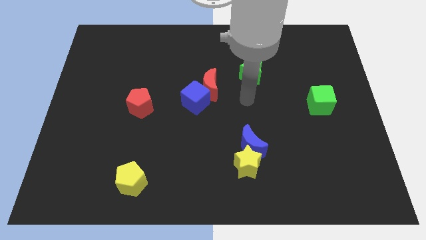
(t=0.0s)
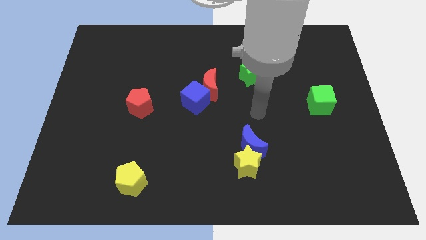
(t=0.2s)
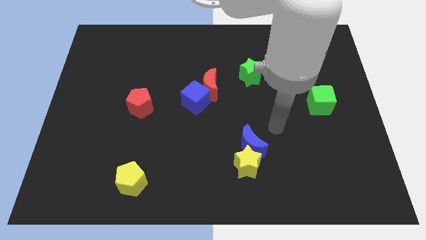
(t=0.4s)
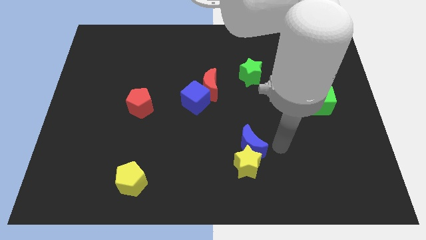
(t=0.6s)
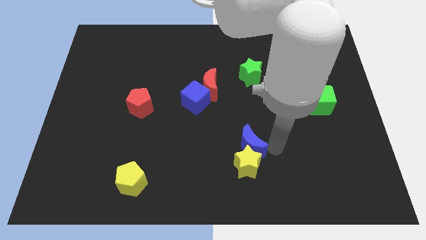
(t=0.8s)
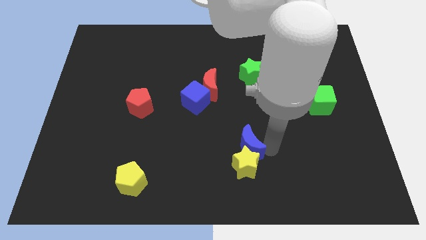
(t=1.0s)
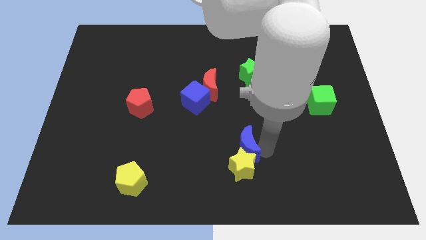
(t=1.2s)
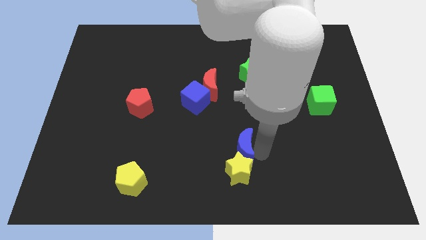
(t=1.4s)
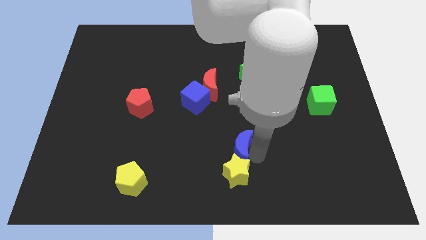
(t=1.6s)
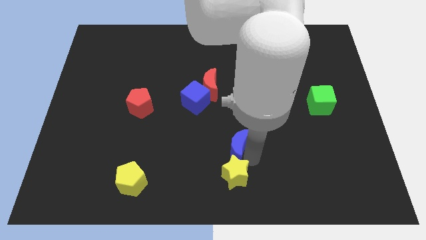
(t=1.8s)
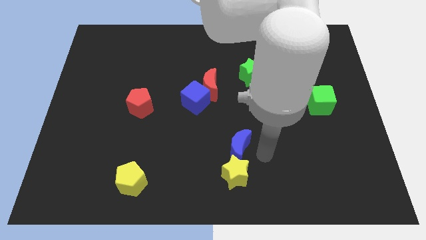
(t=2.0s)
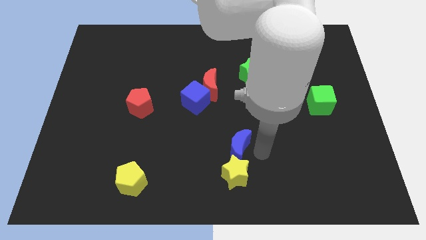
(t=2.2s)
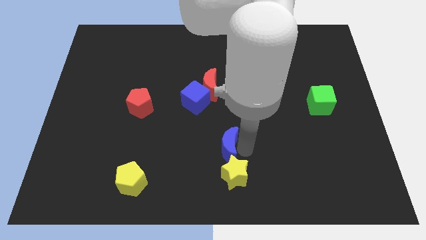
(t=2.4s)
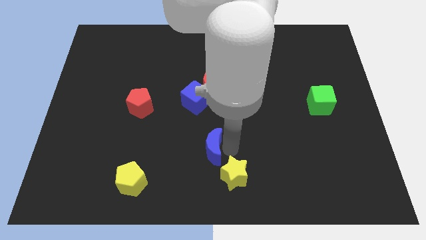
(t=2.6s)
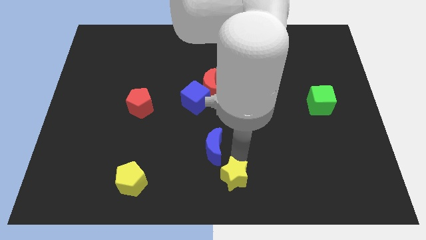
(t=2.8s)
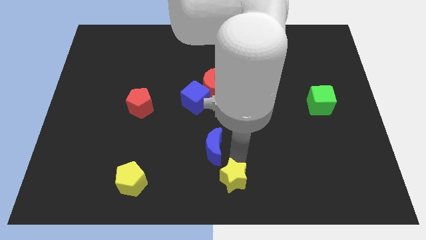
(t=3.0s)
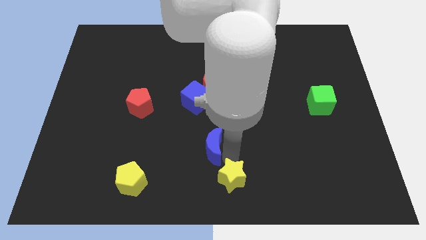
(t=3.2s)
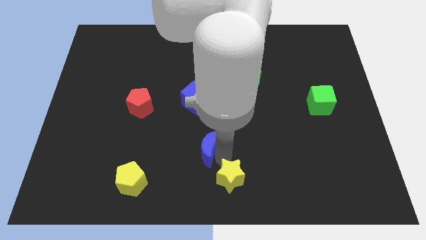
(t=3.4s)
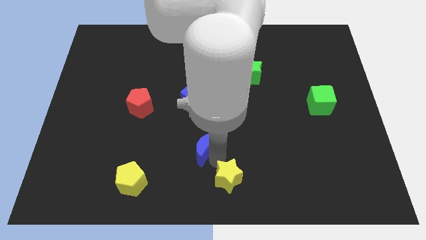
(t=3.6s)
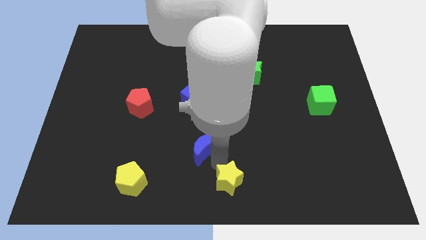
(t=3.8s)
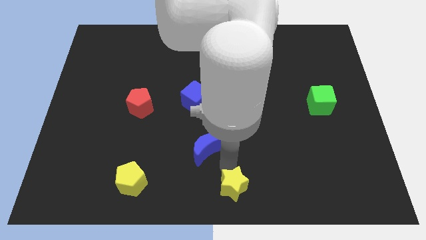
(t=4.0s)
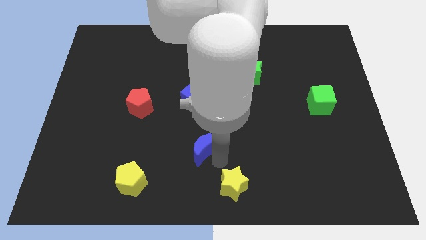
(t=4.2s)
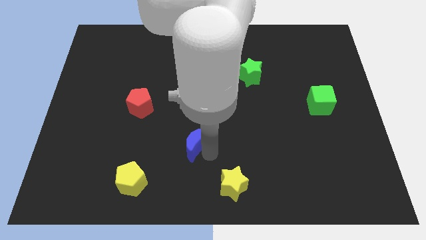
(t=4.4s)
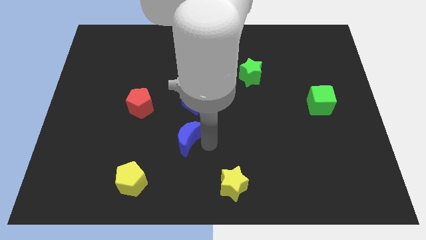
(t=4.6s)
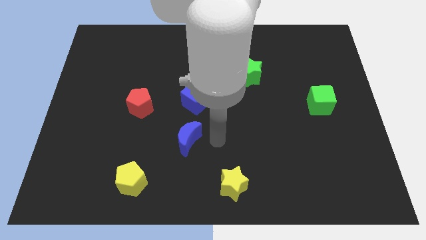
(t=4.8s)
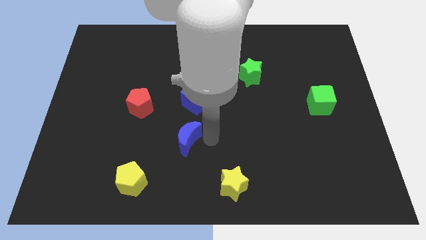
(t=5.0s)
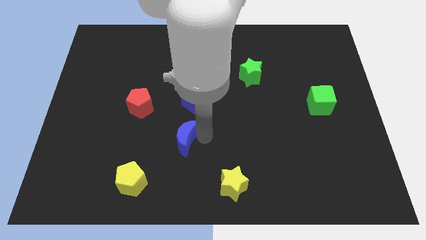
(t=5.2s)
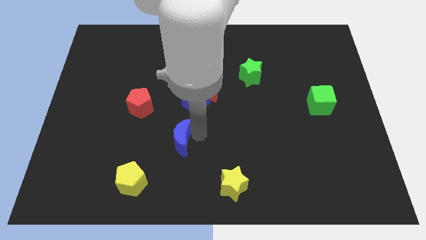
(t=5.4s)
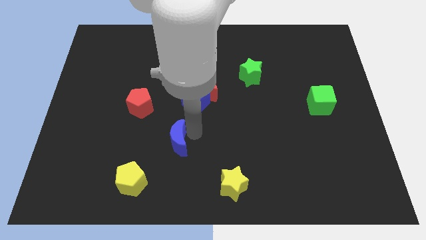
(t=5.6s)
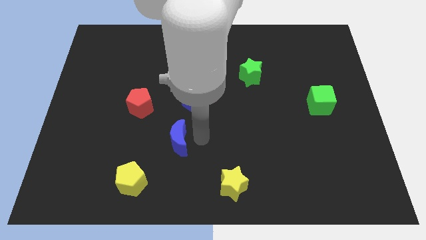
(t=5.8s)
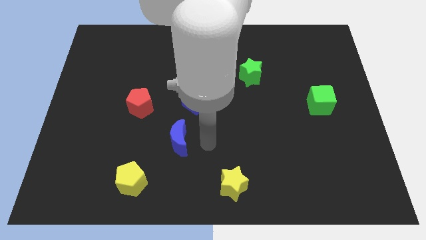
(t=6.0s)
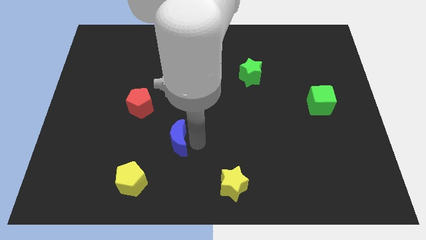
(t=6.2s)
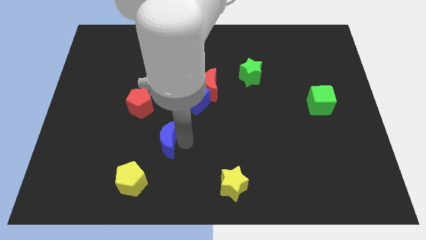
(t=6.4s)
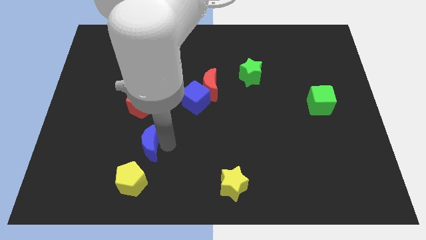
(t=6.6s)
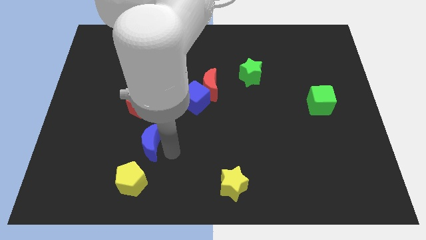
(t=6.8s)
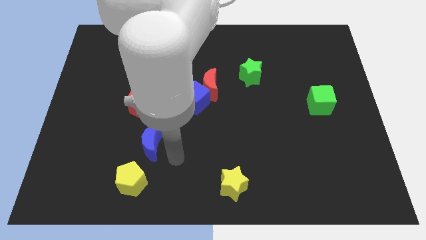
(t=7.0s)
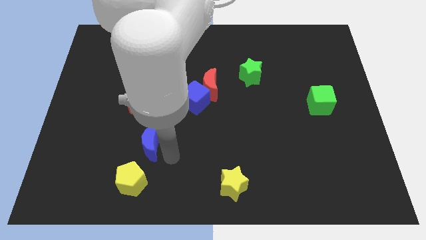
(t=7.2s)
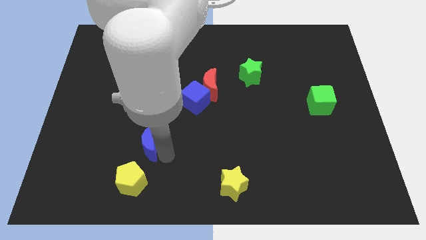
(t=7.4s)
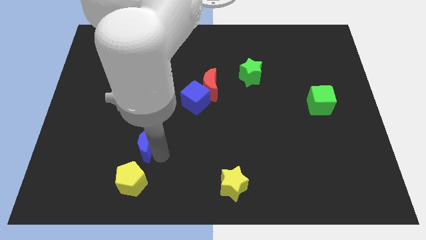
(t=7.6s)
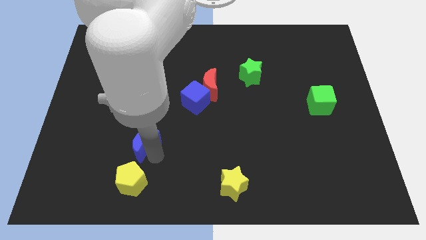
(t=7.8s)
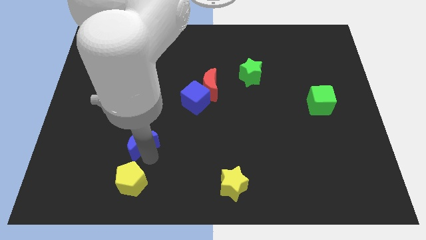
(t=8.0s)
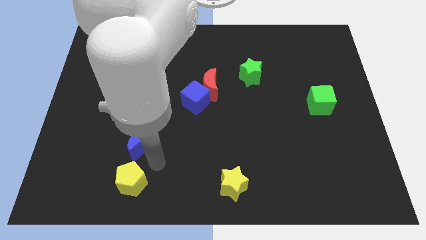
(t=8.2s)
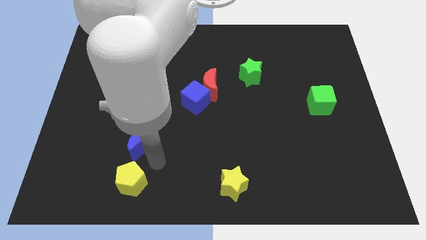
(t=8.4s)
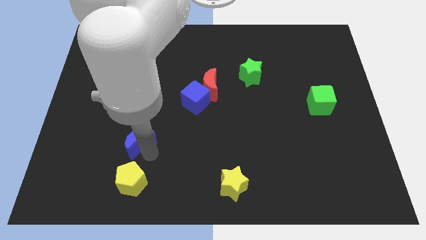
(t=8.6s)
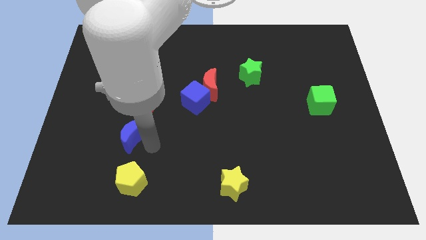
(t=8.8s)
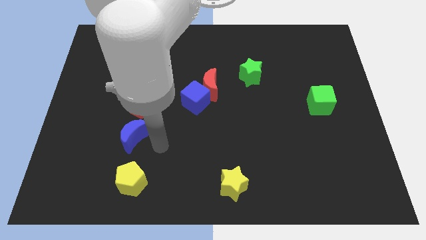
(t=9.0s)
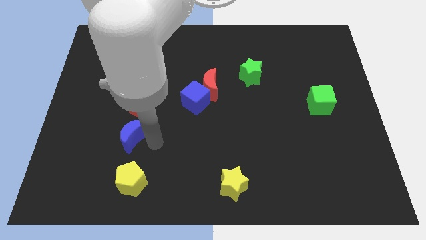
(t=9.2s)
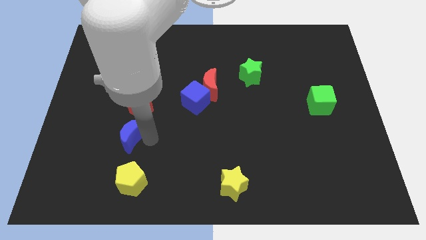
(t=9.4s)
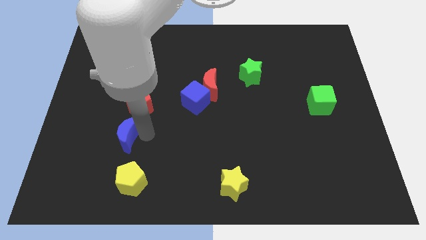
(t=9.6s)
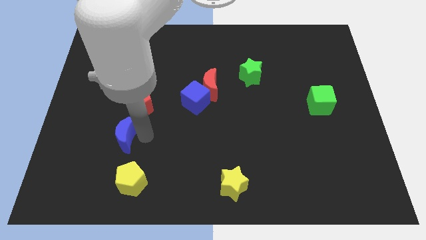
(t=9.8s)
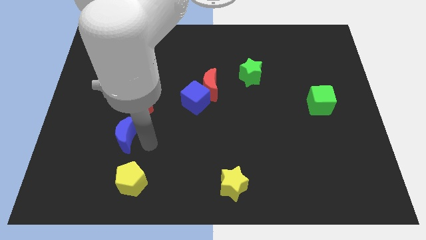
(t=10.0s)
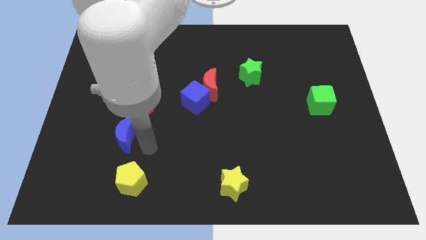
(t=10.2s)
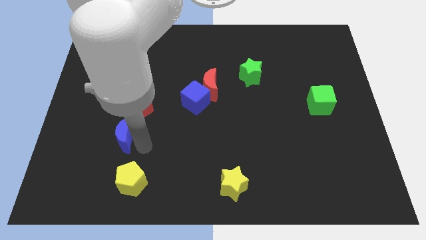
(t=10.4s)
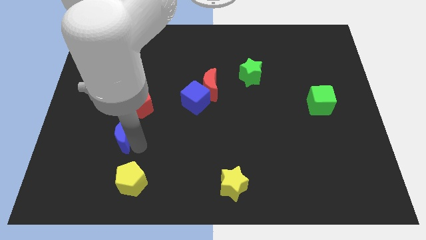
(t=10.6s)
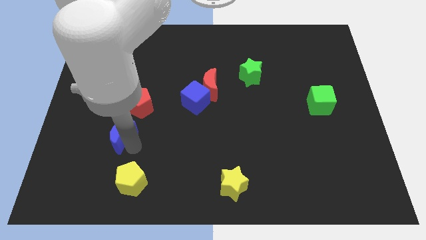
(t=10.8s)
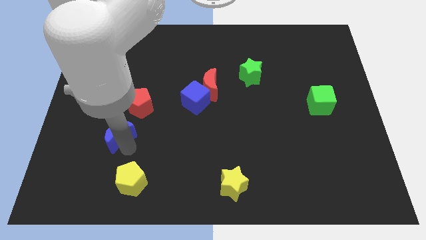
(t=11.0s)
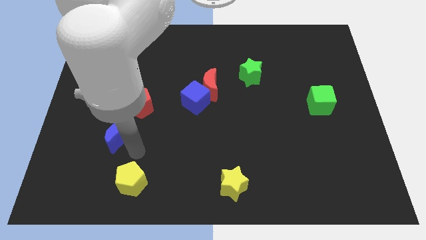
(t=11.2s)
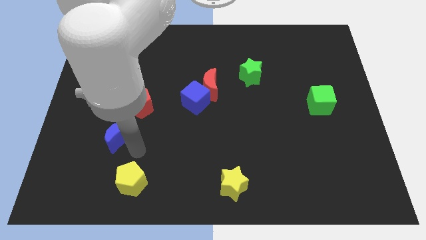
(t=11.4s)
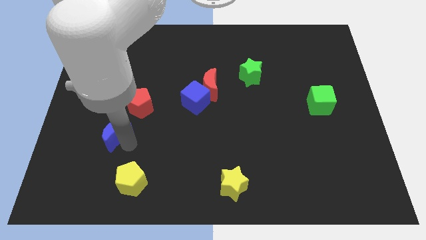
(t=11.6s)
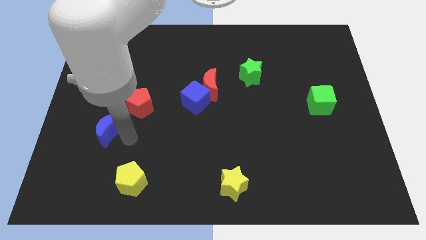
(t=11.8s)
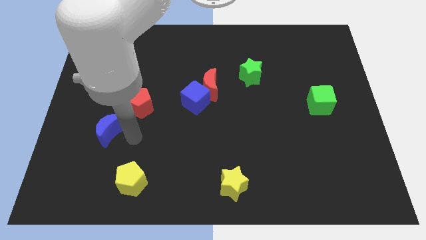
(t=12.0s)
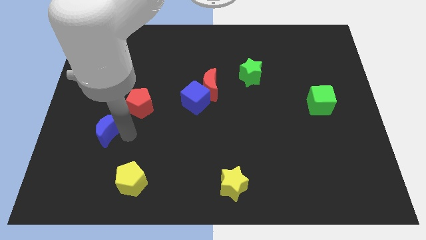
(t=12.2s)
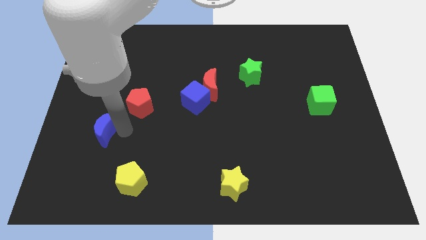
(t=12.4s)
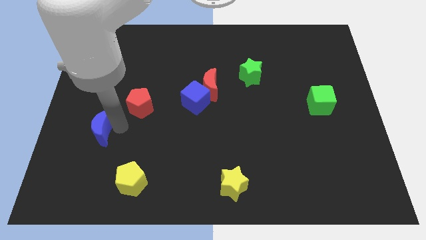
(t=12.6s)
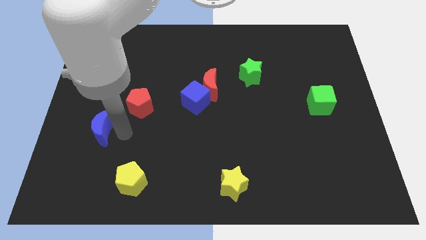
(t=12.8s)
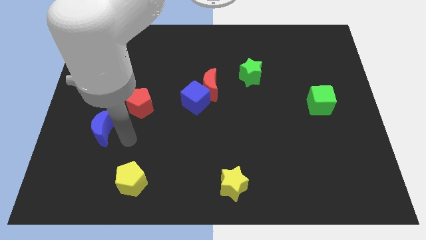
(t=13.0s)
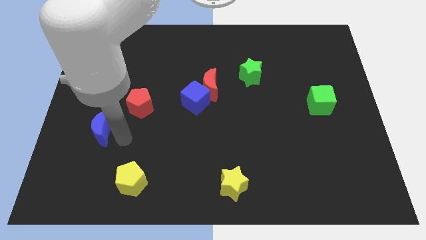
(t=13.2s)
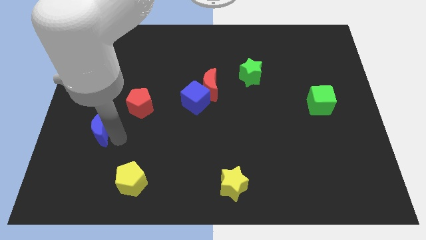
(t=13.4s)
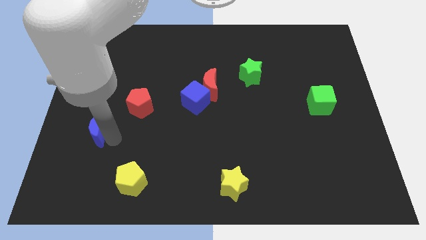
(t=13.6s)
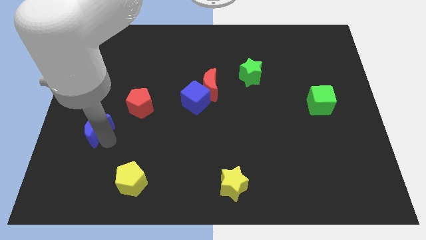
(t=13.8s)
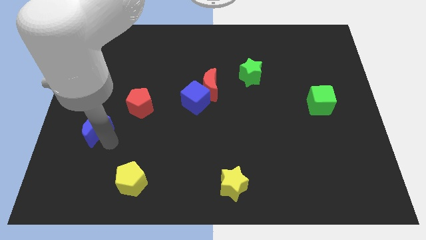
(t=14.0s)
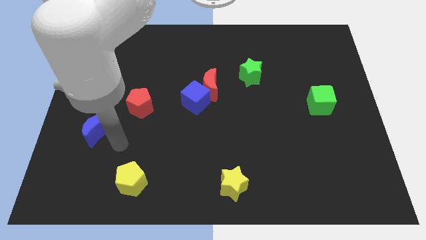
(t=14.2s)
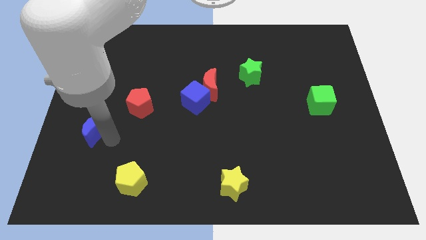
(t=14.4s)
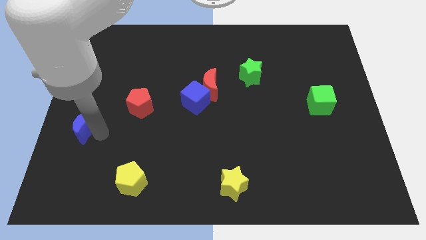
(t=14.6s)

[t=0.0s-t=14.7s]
push the blue moon to the left side of the board

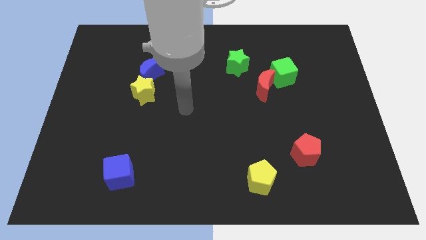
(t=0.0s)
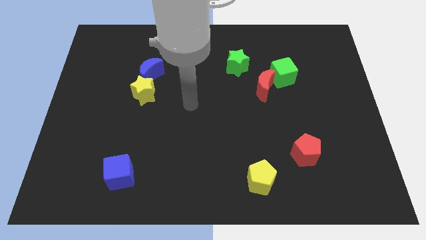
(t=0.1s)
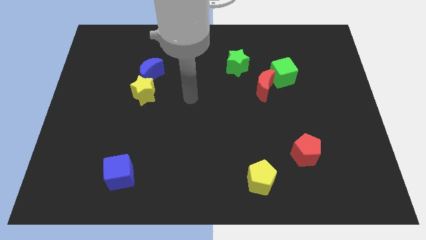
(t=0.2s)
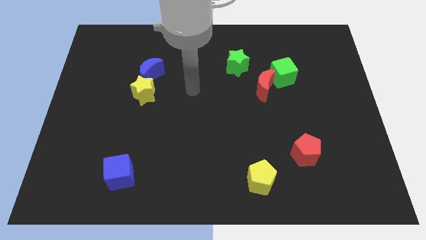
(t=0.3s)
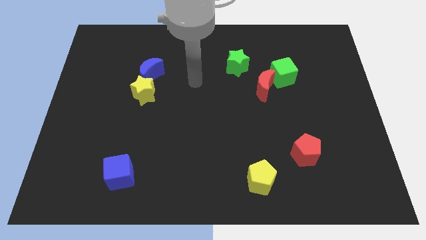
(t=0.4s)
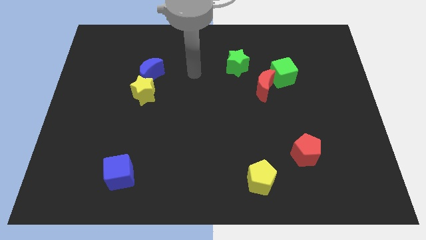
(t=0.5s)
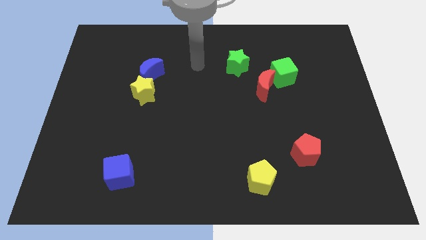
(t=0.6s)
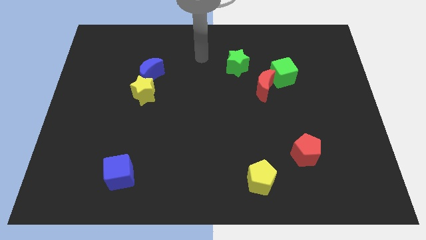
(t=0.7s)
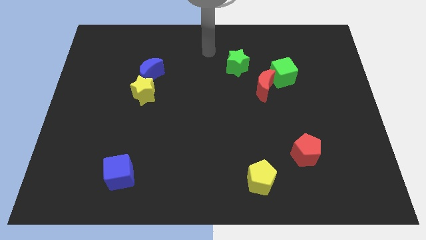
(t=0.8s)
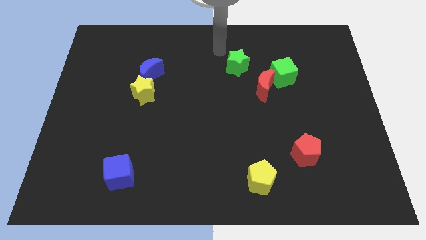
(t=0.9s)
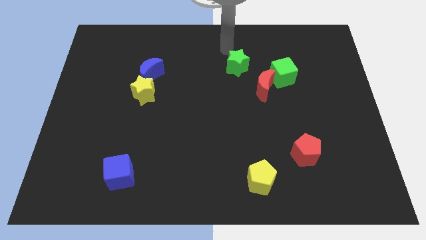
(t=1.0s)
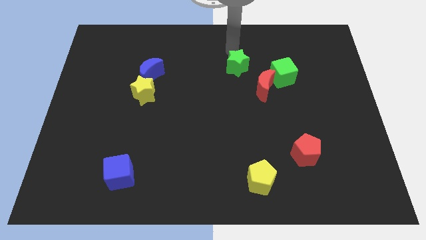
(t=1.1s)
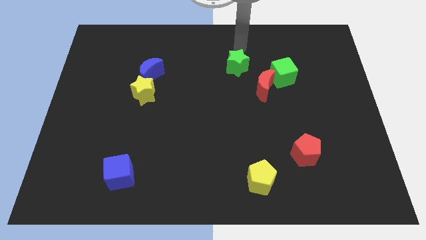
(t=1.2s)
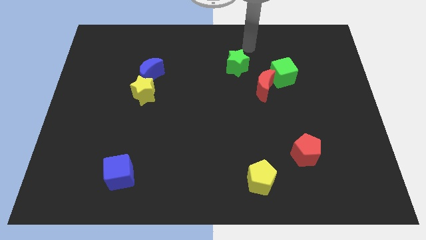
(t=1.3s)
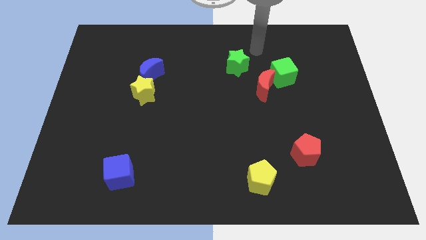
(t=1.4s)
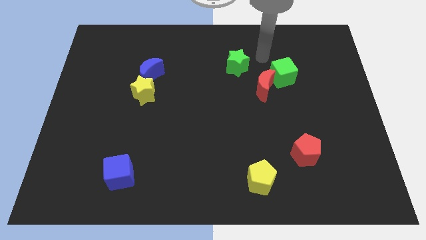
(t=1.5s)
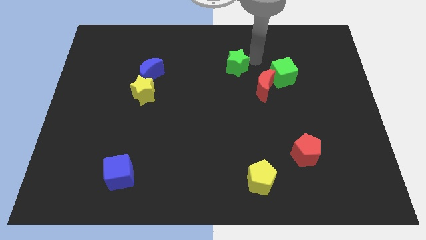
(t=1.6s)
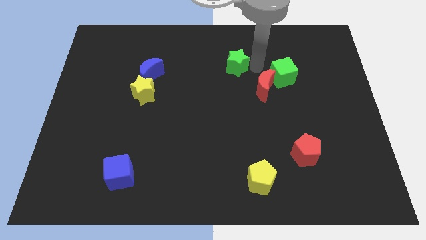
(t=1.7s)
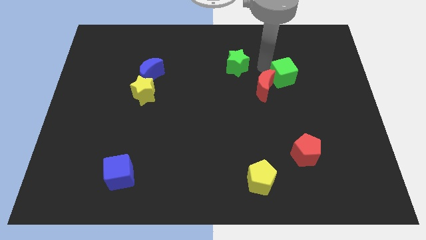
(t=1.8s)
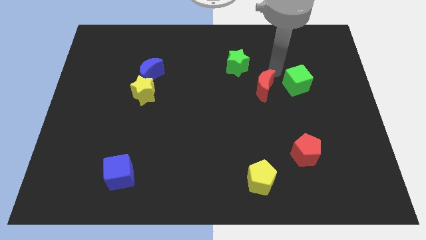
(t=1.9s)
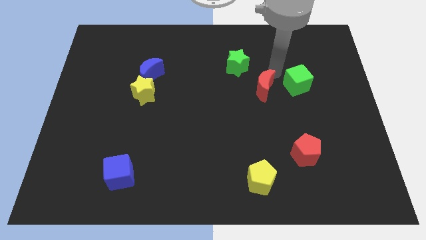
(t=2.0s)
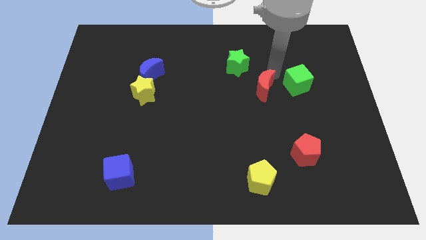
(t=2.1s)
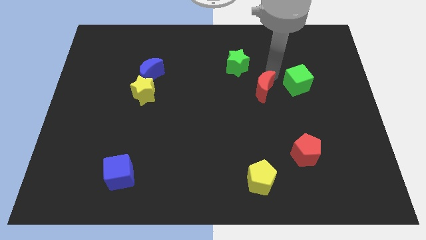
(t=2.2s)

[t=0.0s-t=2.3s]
push the red moon to the middle
